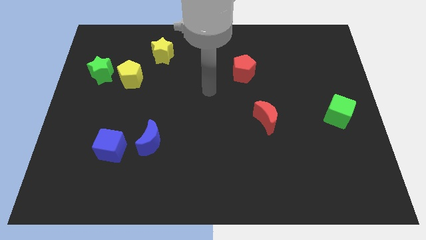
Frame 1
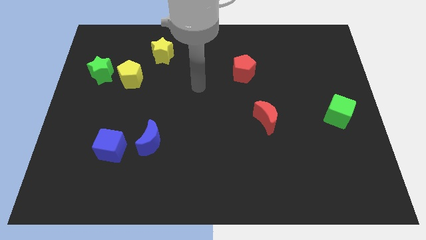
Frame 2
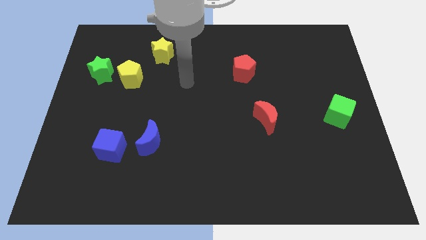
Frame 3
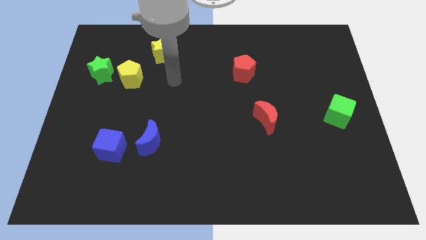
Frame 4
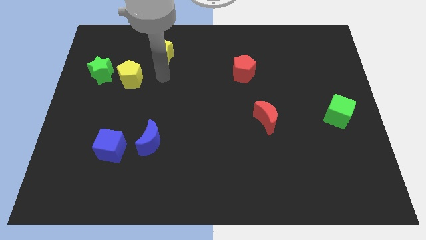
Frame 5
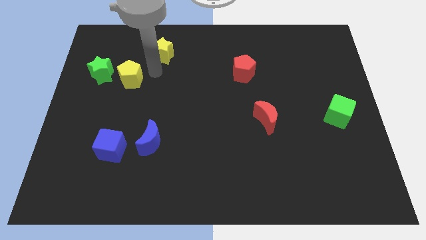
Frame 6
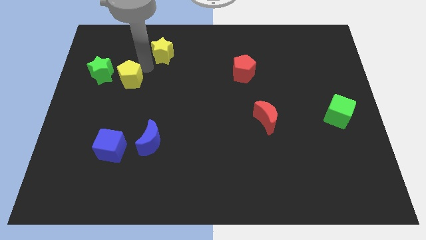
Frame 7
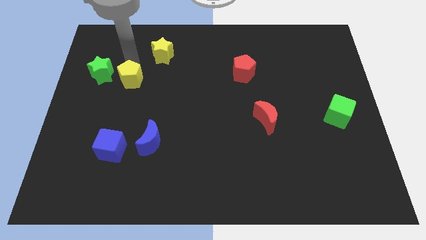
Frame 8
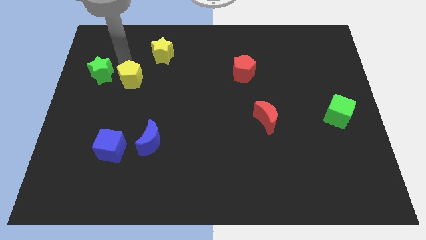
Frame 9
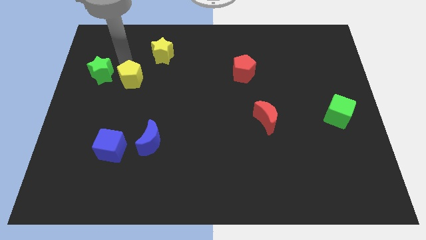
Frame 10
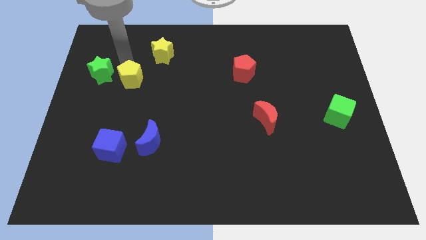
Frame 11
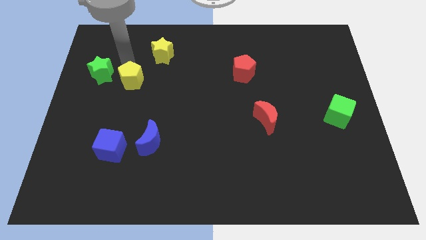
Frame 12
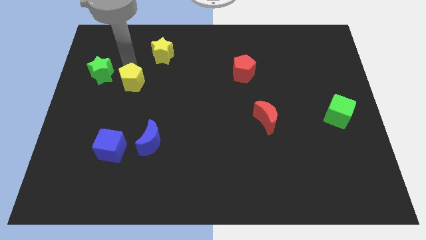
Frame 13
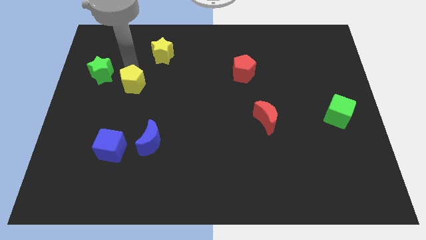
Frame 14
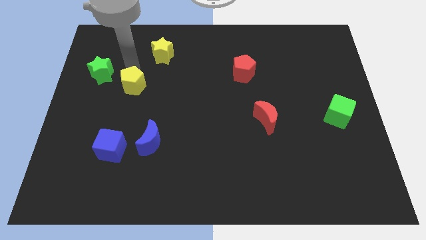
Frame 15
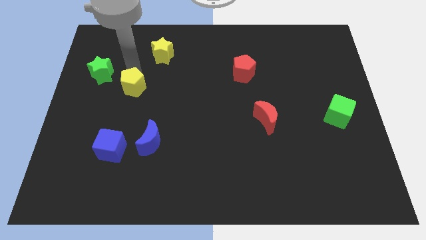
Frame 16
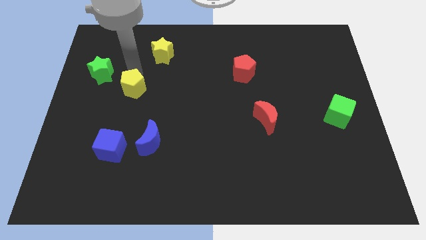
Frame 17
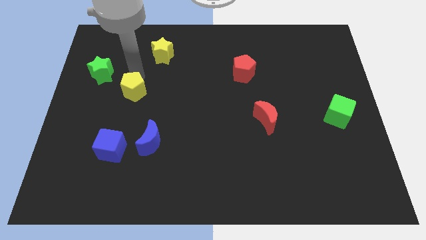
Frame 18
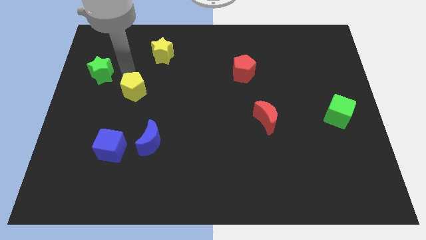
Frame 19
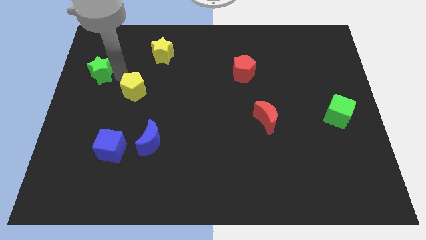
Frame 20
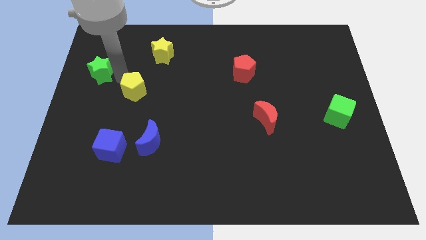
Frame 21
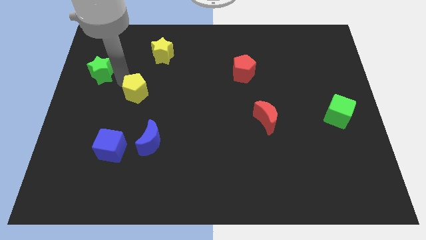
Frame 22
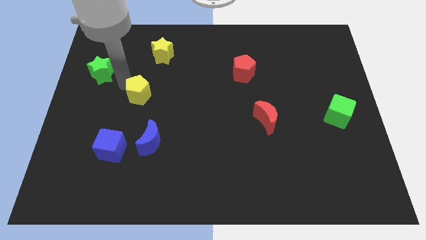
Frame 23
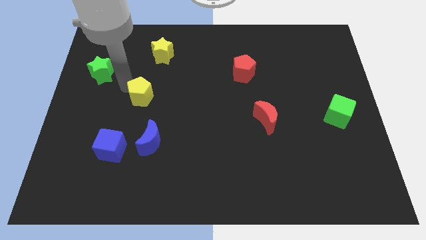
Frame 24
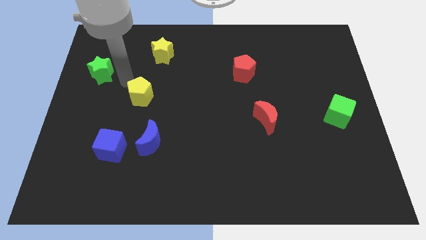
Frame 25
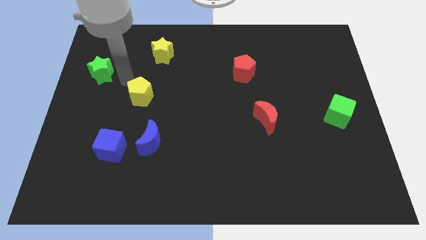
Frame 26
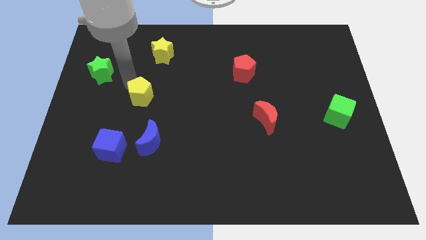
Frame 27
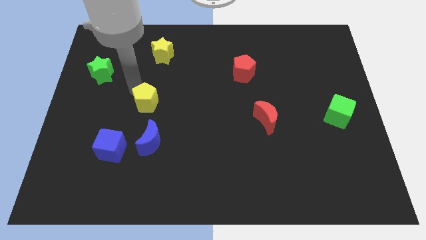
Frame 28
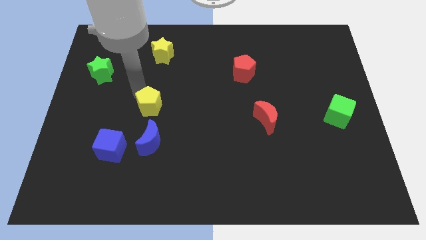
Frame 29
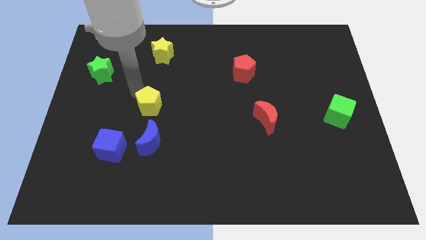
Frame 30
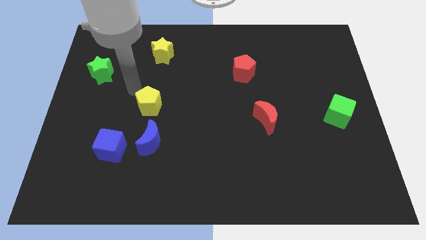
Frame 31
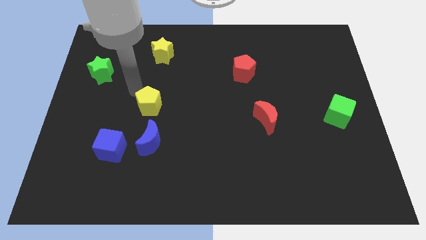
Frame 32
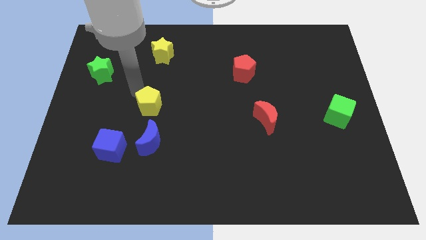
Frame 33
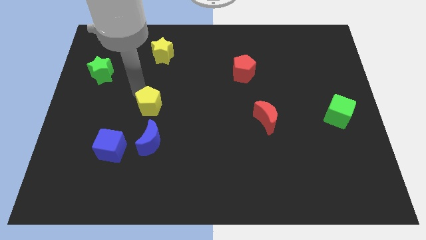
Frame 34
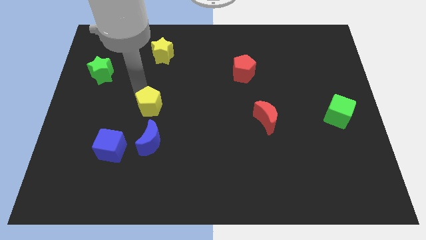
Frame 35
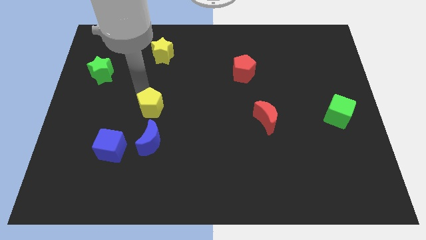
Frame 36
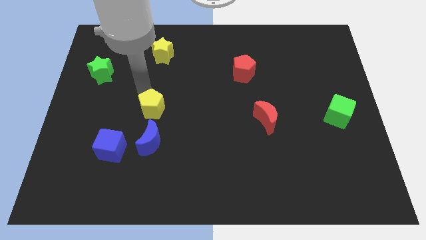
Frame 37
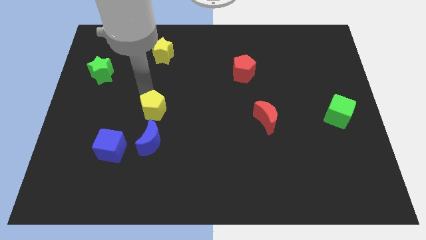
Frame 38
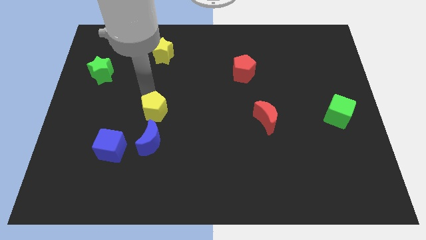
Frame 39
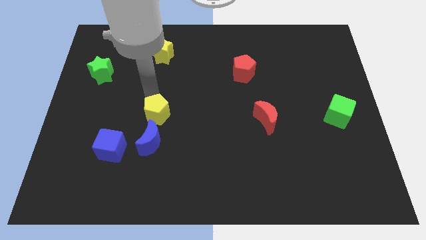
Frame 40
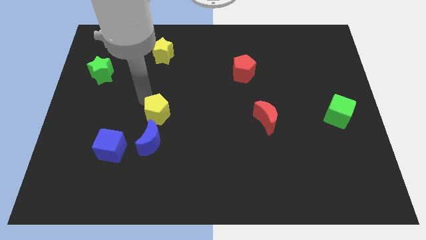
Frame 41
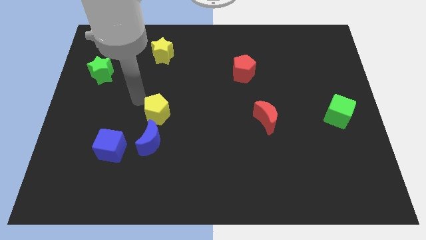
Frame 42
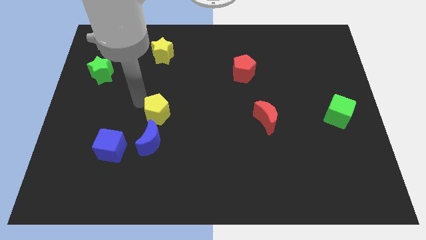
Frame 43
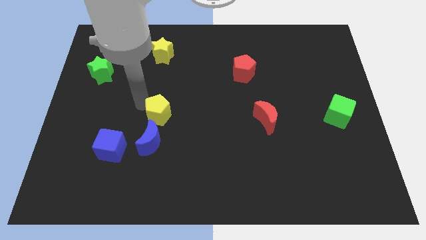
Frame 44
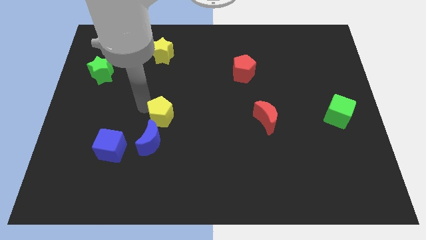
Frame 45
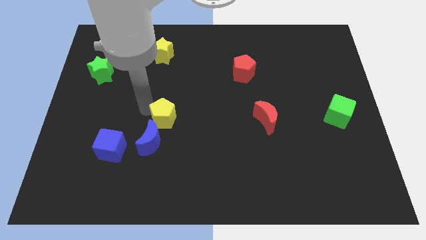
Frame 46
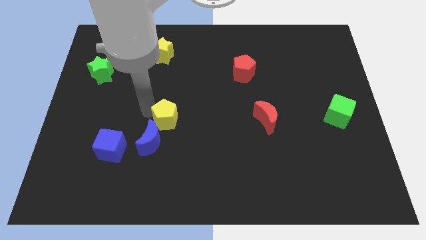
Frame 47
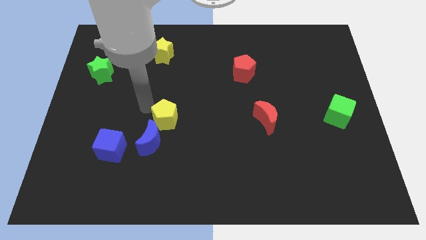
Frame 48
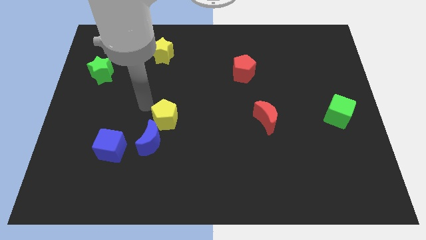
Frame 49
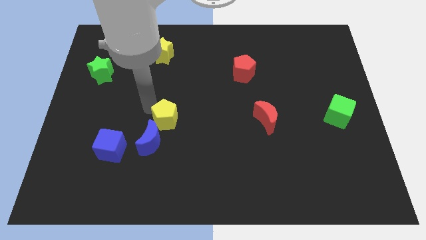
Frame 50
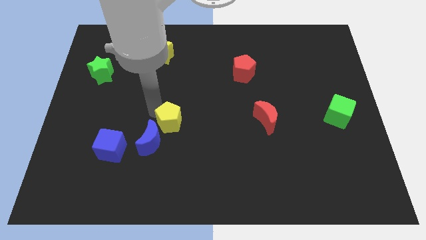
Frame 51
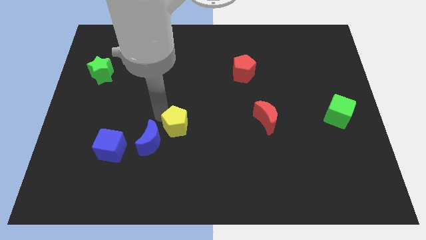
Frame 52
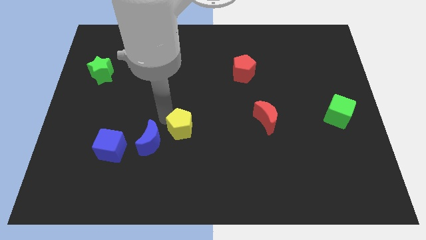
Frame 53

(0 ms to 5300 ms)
move the yellow pentagon diagonally downwards and right

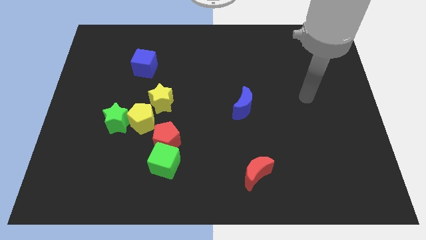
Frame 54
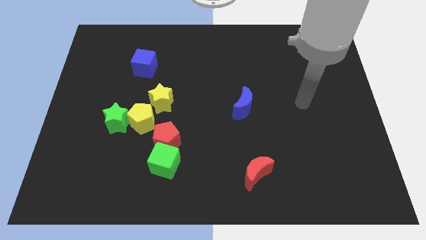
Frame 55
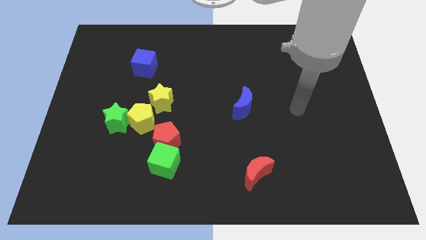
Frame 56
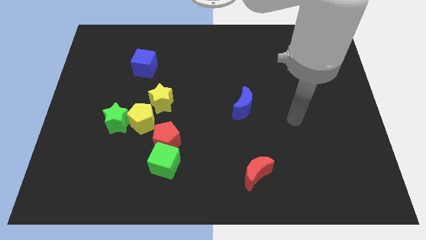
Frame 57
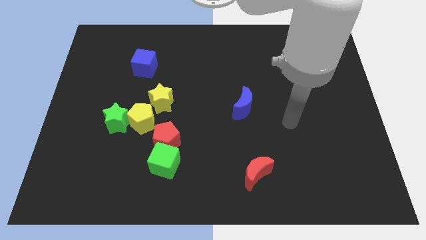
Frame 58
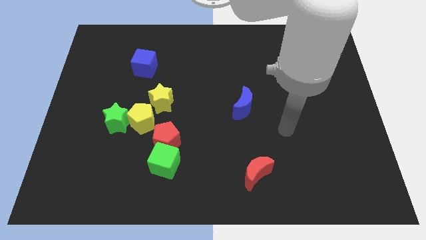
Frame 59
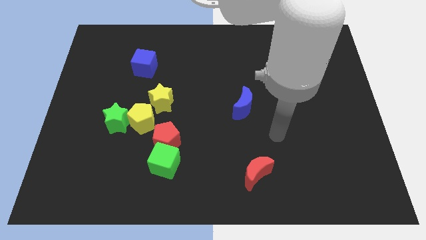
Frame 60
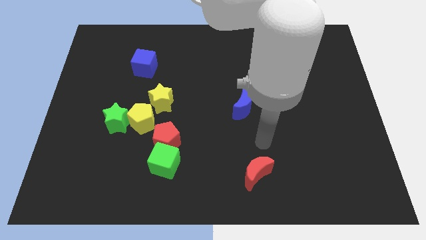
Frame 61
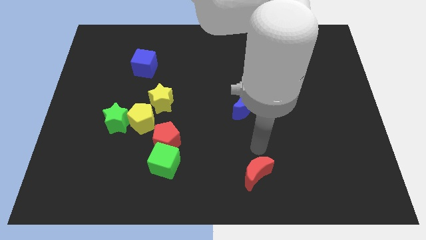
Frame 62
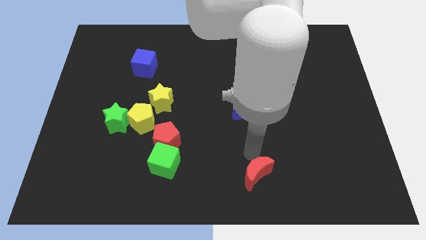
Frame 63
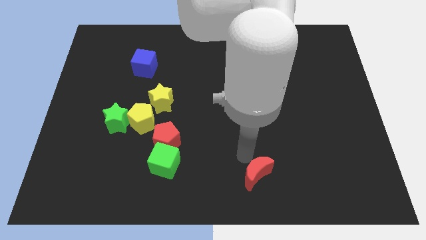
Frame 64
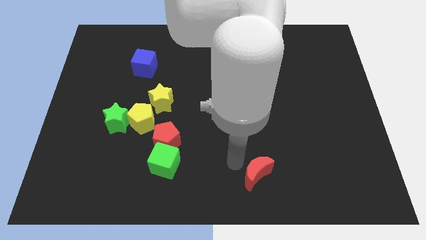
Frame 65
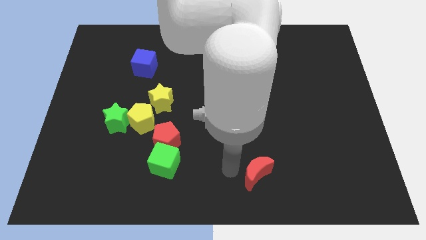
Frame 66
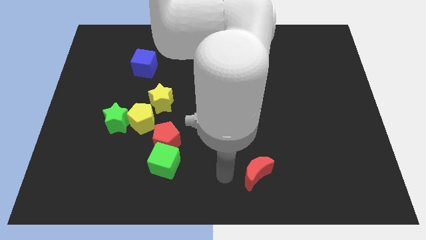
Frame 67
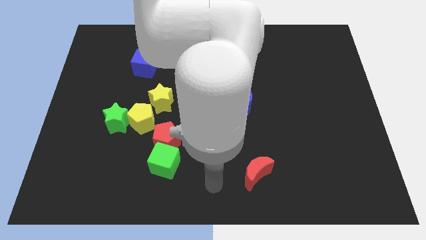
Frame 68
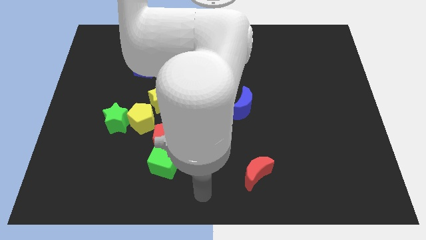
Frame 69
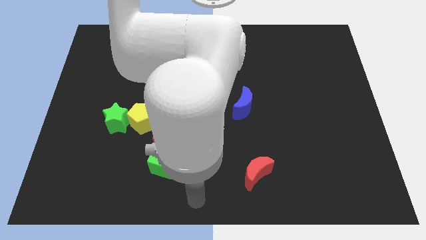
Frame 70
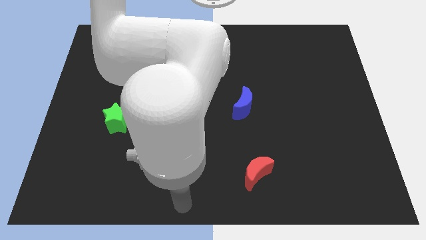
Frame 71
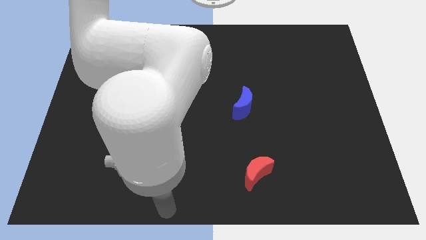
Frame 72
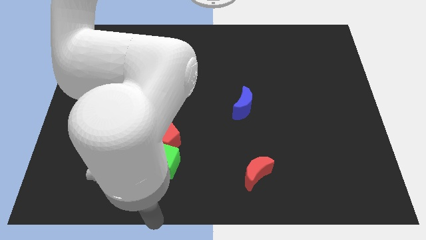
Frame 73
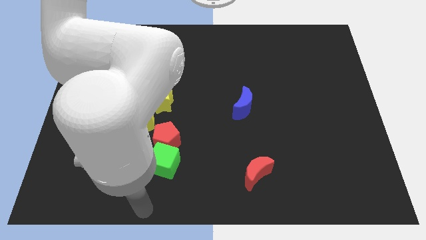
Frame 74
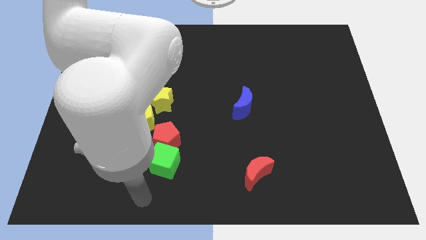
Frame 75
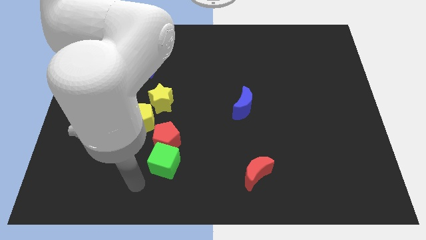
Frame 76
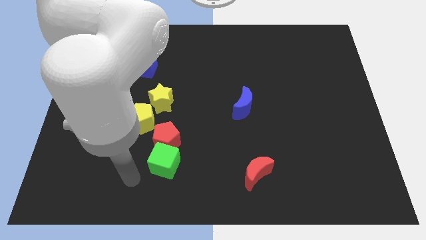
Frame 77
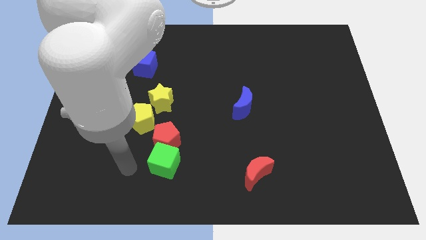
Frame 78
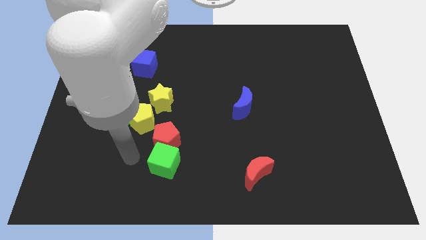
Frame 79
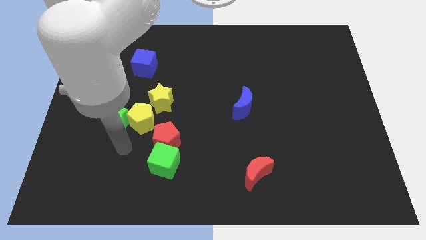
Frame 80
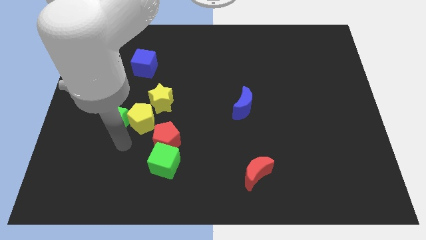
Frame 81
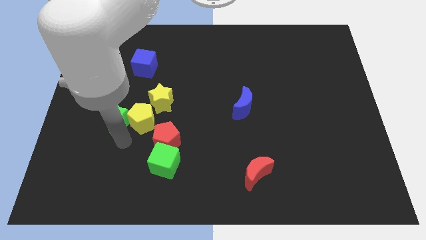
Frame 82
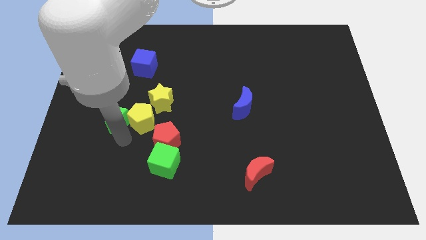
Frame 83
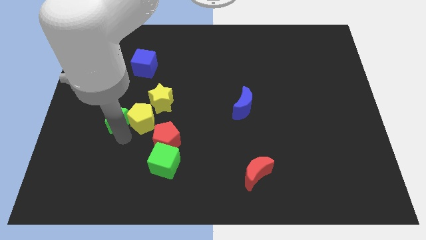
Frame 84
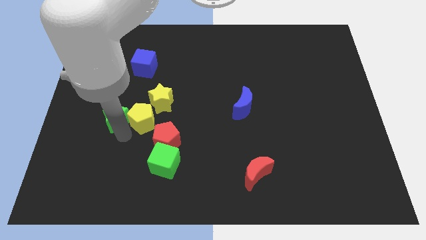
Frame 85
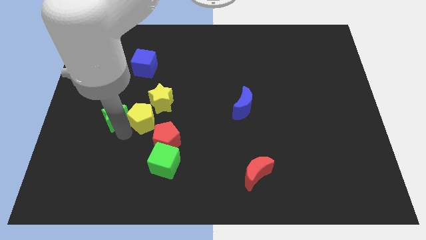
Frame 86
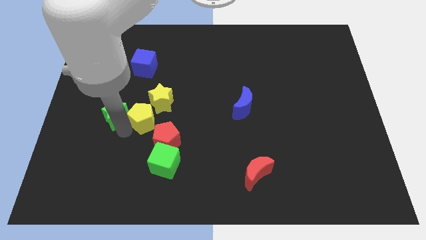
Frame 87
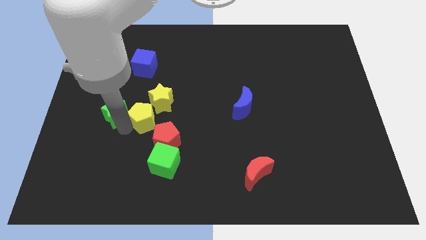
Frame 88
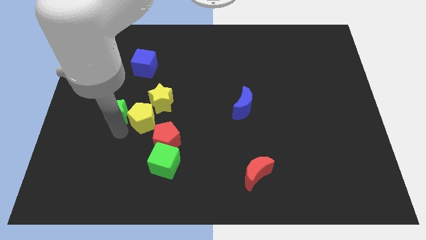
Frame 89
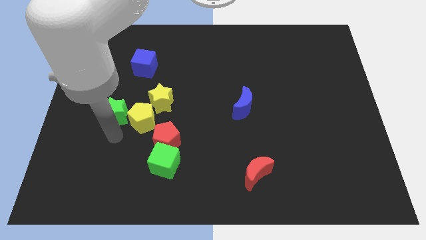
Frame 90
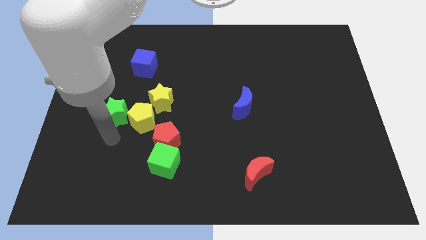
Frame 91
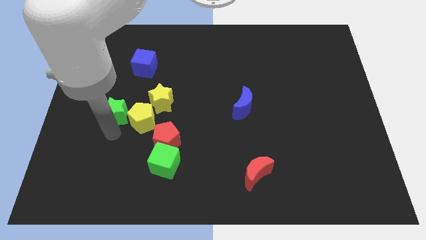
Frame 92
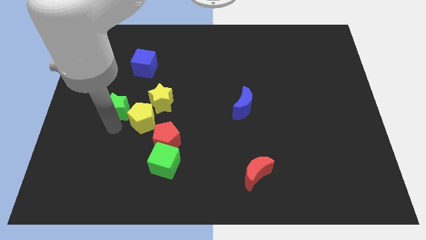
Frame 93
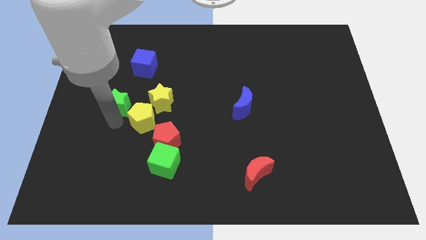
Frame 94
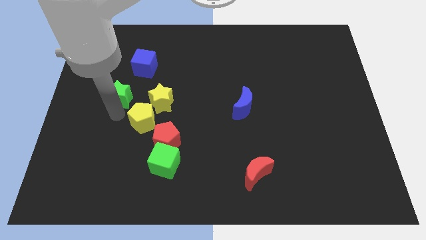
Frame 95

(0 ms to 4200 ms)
slightly move the green star upwards
